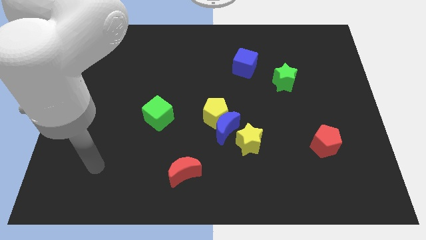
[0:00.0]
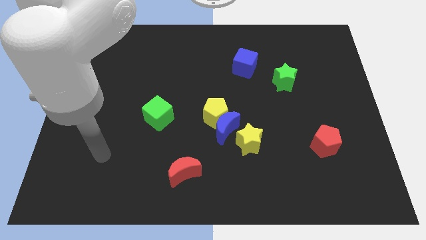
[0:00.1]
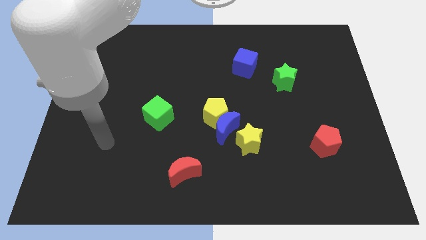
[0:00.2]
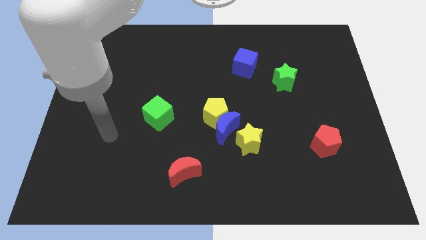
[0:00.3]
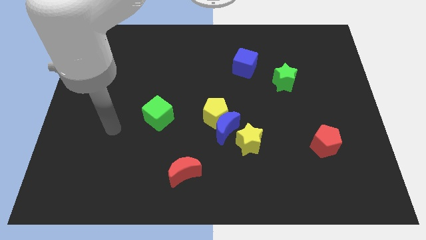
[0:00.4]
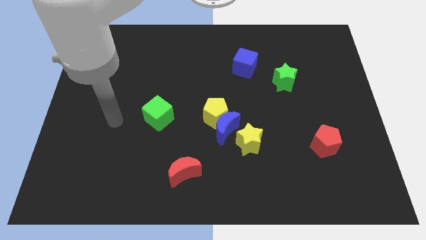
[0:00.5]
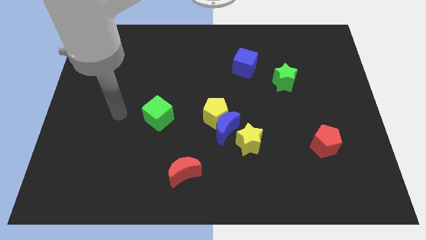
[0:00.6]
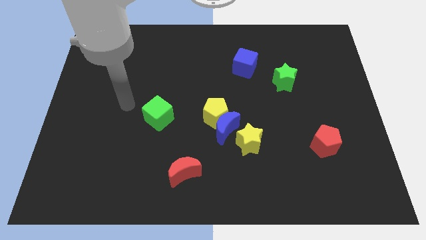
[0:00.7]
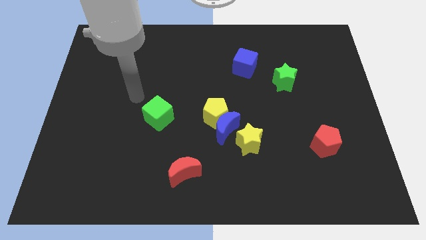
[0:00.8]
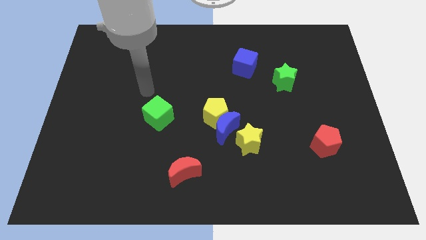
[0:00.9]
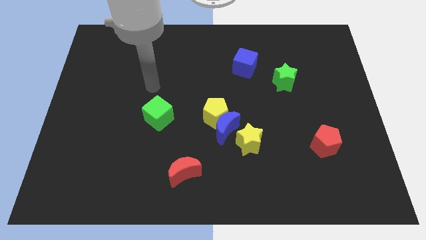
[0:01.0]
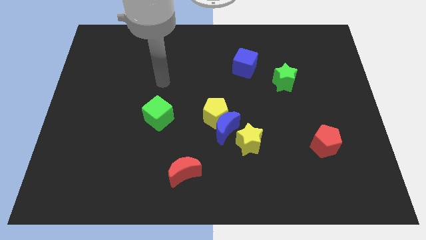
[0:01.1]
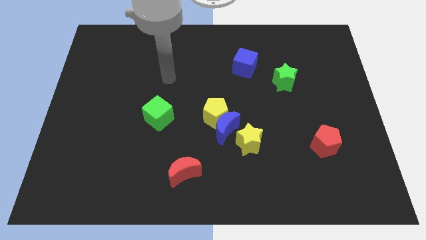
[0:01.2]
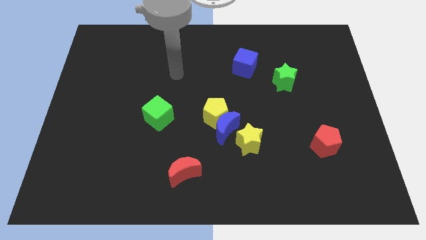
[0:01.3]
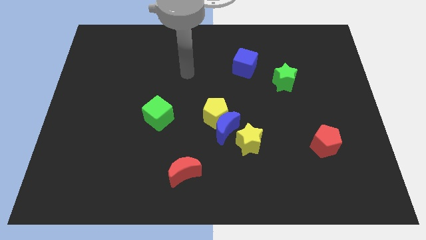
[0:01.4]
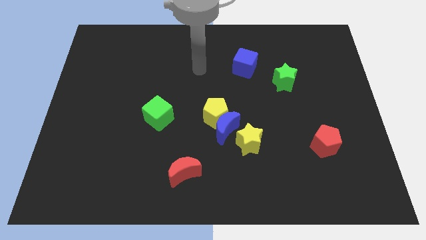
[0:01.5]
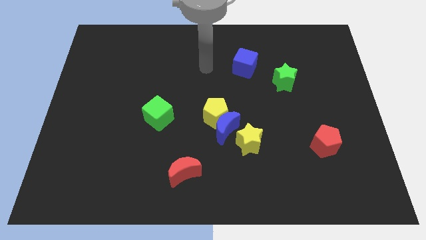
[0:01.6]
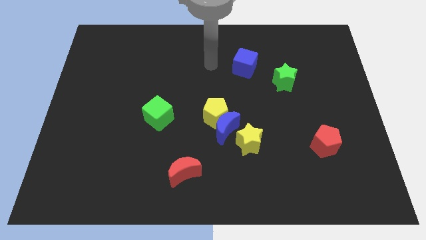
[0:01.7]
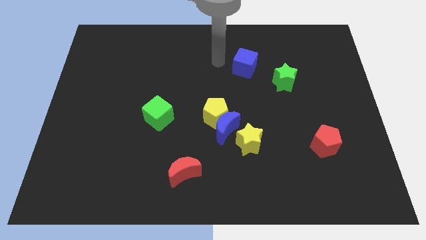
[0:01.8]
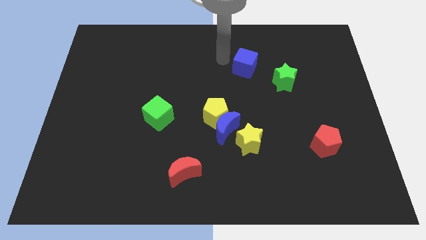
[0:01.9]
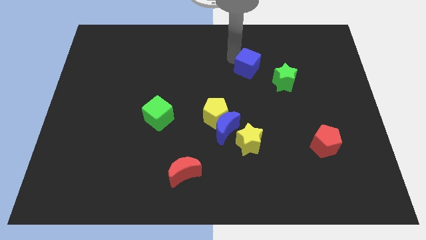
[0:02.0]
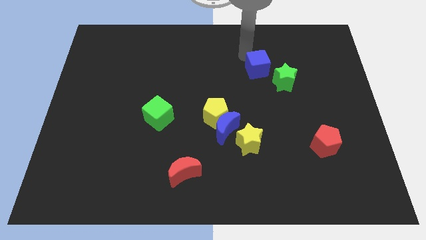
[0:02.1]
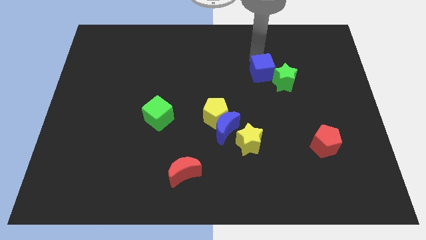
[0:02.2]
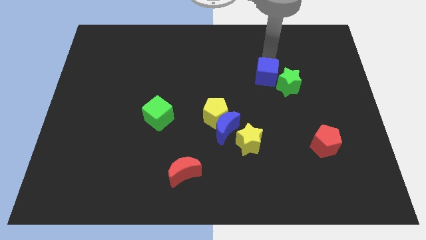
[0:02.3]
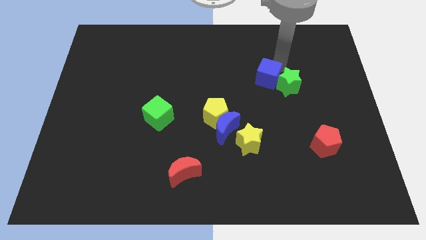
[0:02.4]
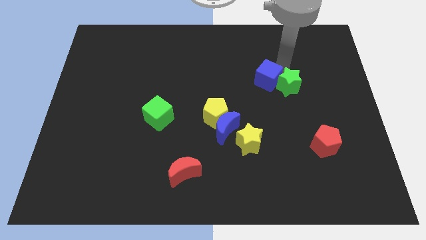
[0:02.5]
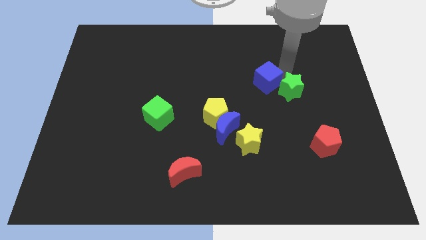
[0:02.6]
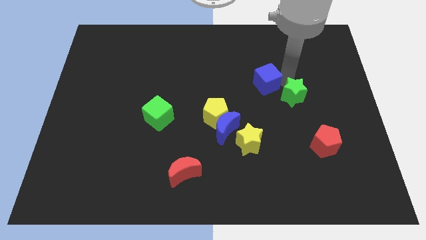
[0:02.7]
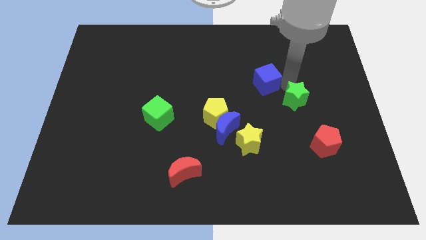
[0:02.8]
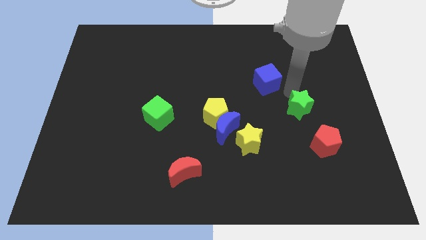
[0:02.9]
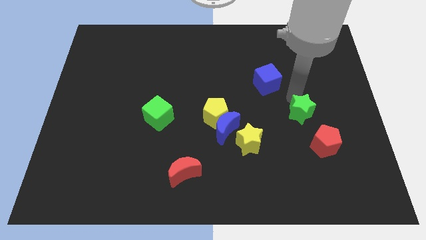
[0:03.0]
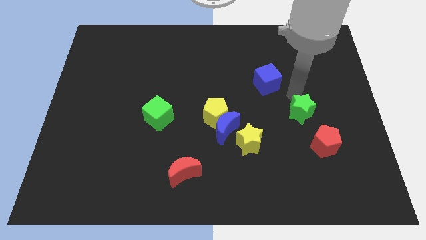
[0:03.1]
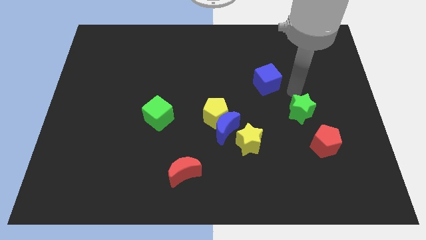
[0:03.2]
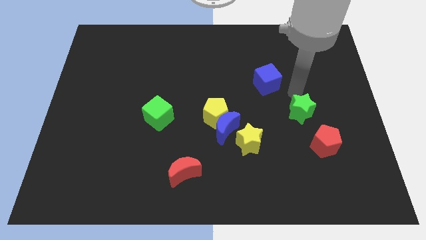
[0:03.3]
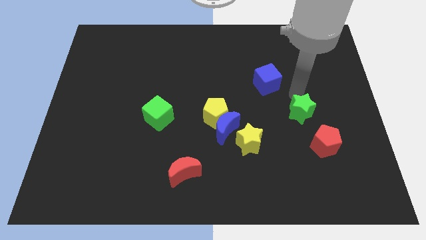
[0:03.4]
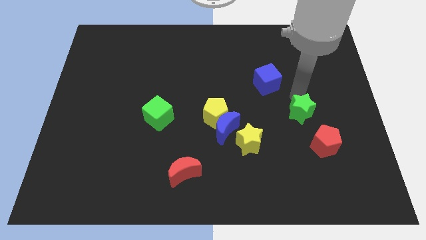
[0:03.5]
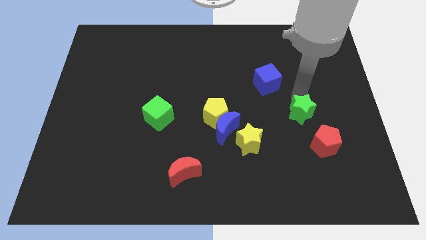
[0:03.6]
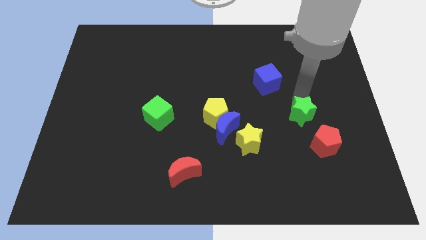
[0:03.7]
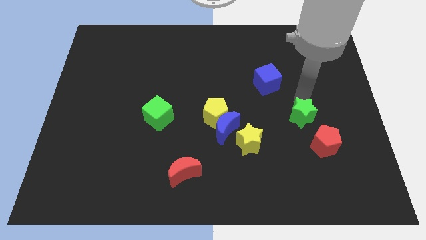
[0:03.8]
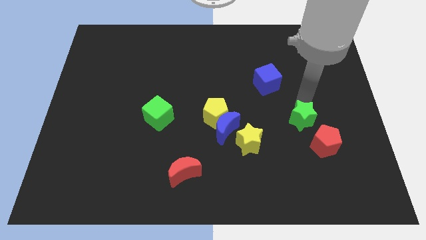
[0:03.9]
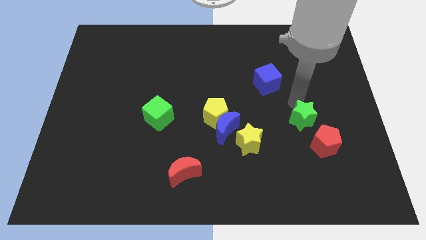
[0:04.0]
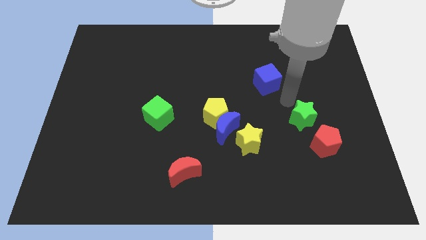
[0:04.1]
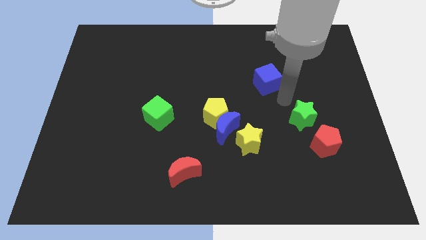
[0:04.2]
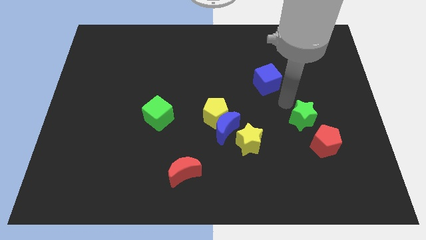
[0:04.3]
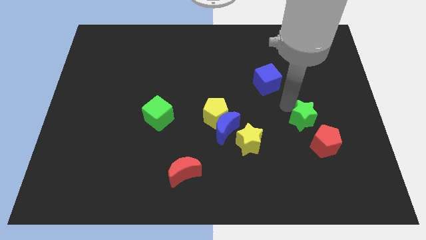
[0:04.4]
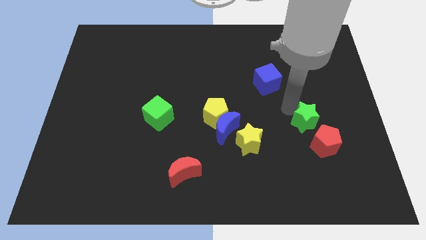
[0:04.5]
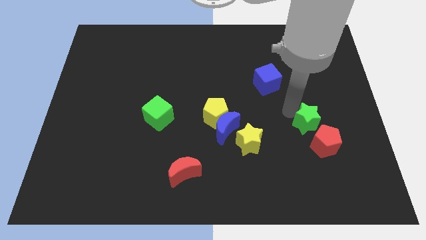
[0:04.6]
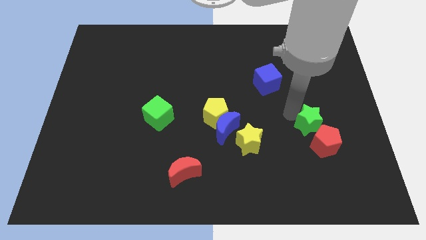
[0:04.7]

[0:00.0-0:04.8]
push the green star to the red pentagon

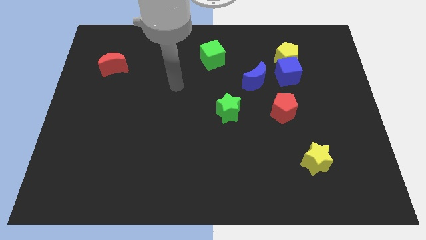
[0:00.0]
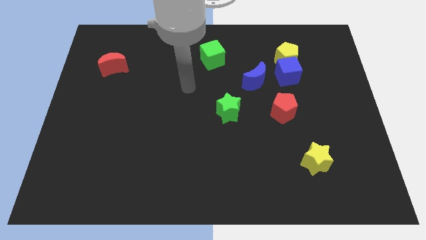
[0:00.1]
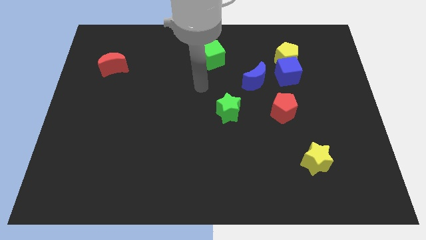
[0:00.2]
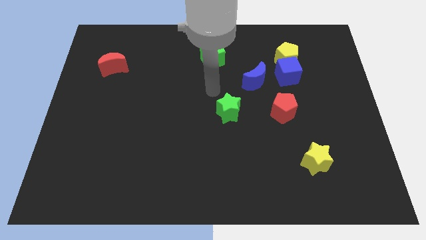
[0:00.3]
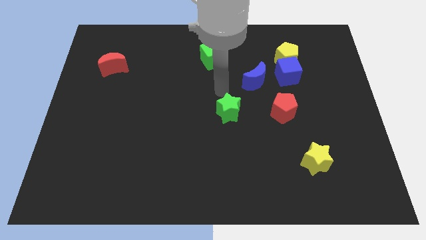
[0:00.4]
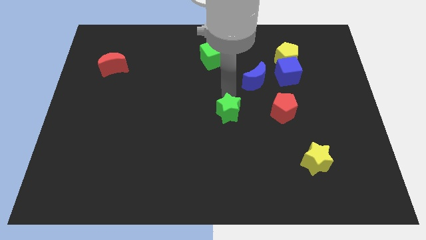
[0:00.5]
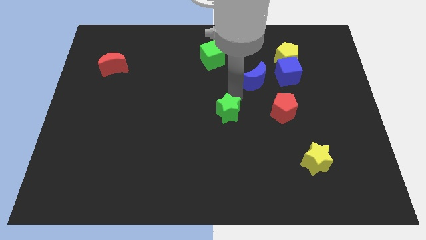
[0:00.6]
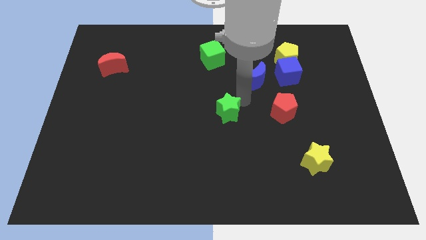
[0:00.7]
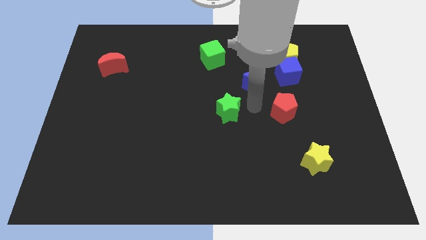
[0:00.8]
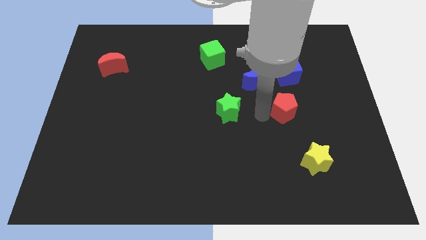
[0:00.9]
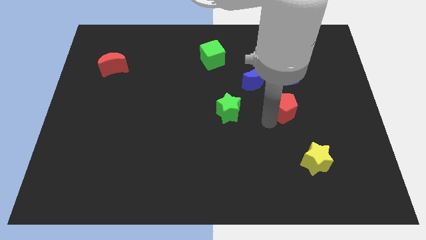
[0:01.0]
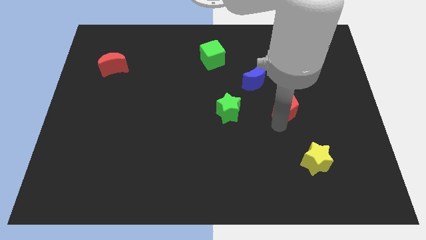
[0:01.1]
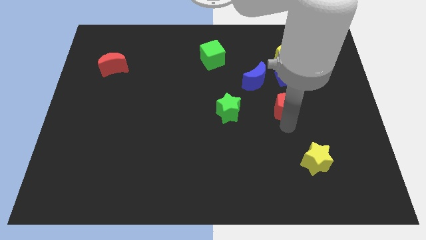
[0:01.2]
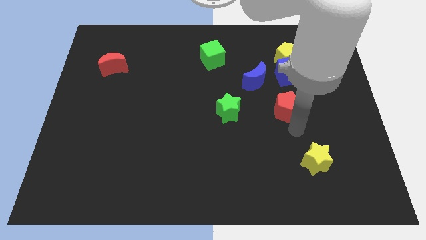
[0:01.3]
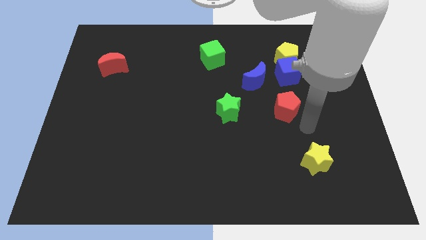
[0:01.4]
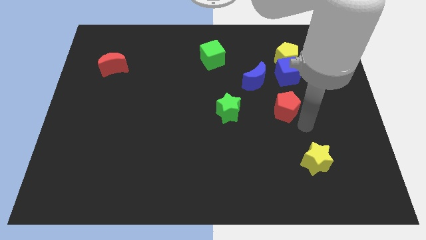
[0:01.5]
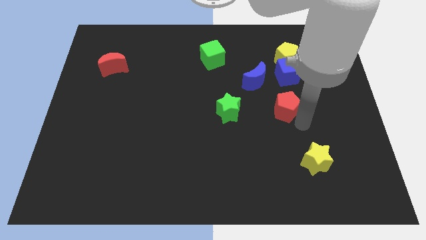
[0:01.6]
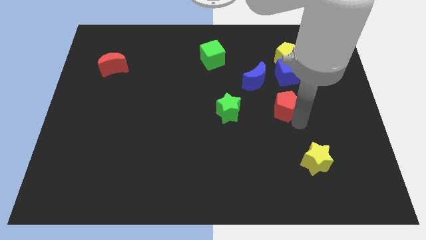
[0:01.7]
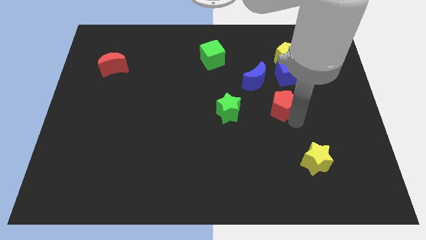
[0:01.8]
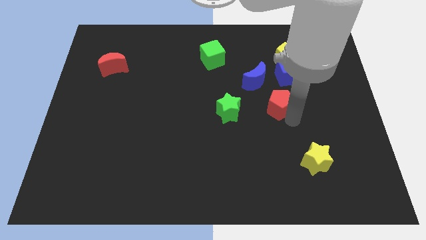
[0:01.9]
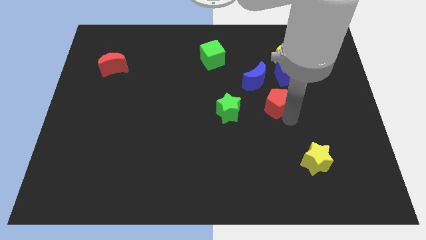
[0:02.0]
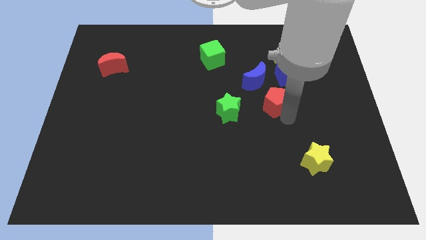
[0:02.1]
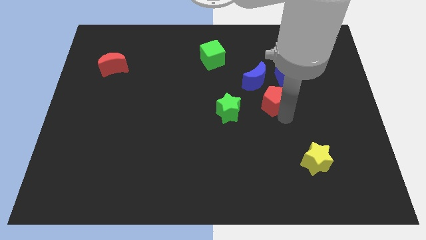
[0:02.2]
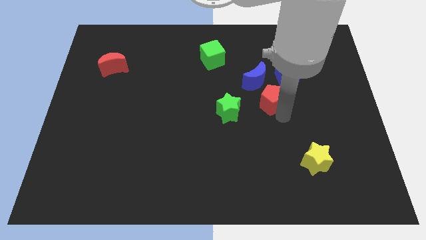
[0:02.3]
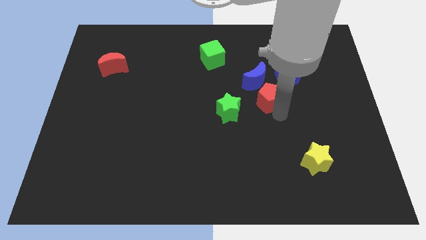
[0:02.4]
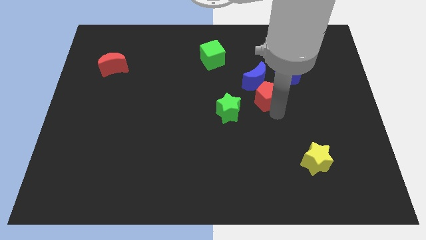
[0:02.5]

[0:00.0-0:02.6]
put the red pentagon to the blue moon
